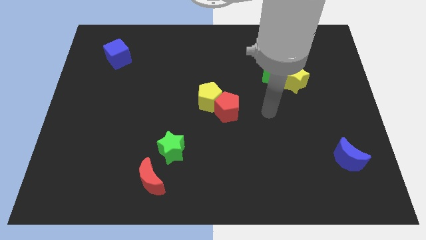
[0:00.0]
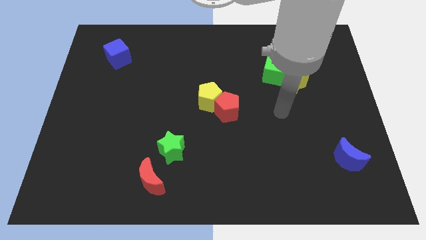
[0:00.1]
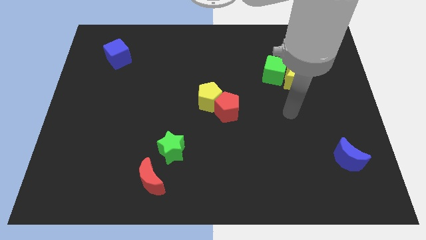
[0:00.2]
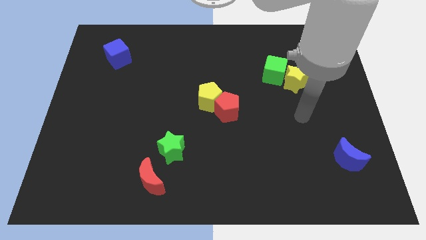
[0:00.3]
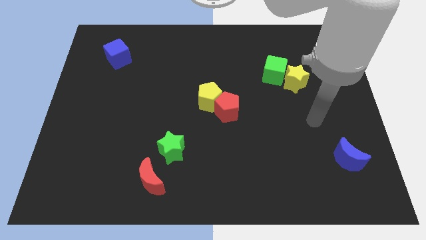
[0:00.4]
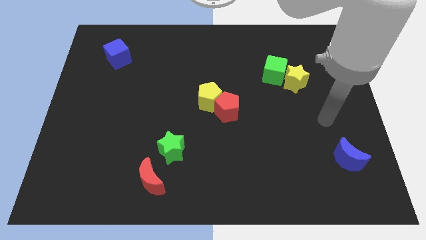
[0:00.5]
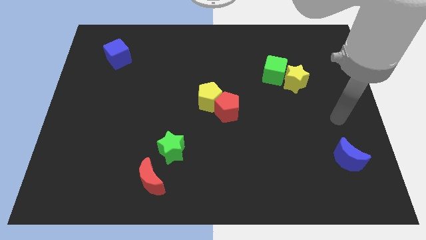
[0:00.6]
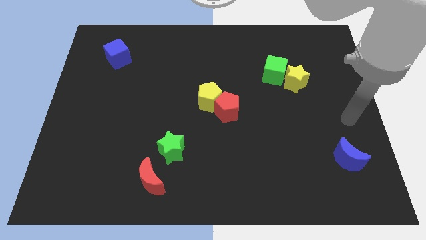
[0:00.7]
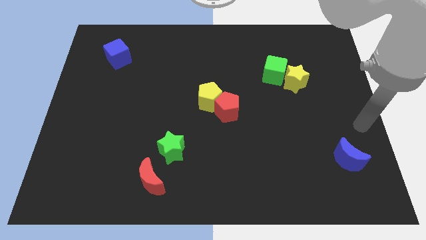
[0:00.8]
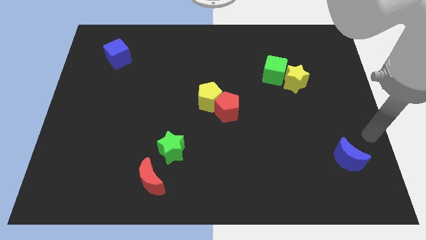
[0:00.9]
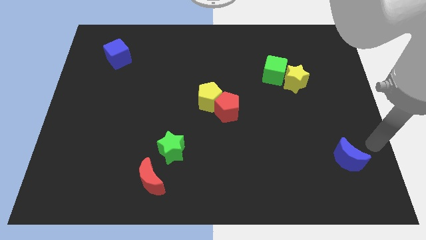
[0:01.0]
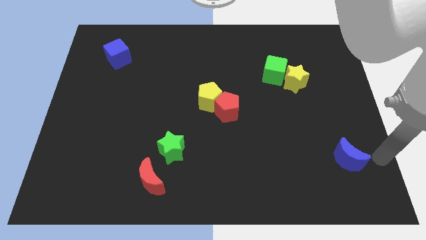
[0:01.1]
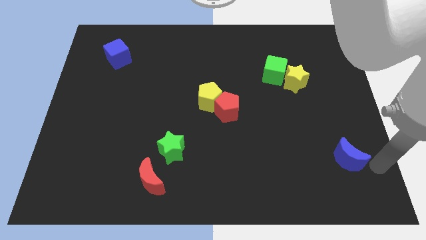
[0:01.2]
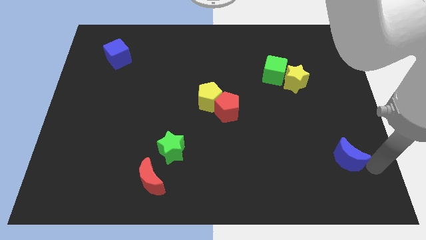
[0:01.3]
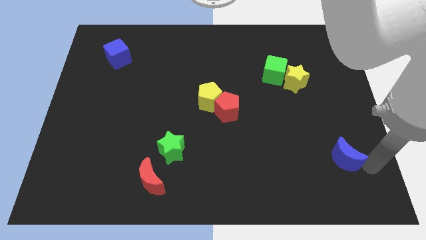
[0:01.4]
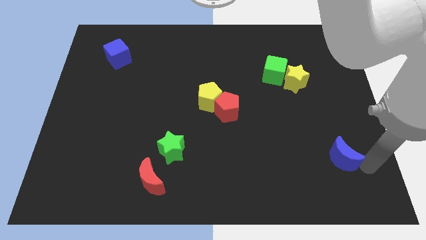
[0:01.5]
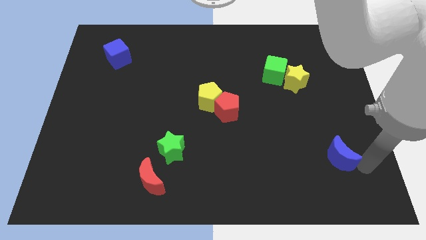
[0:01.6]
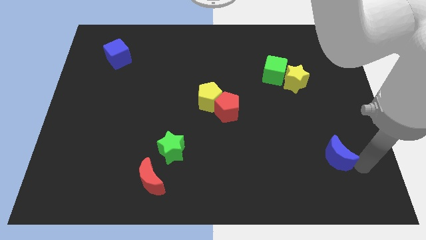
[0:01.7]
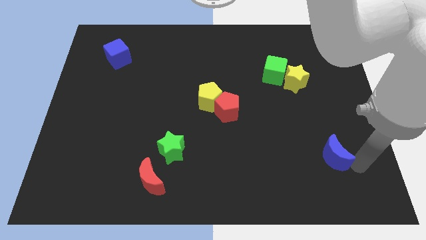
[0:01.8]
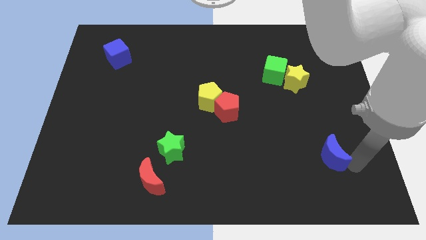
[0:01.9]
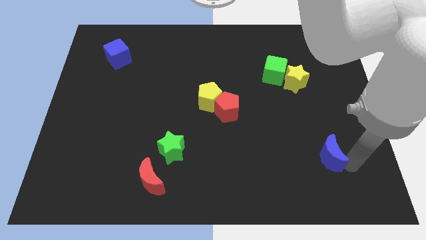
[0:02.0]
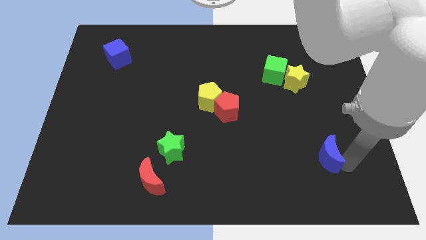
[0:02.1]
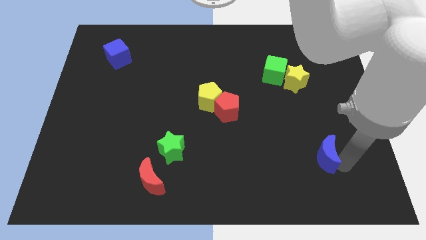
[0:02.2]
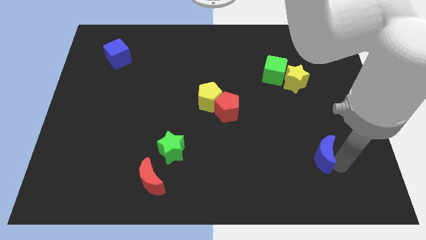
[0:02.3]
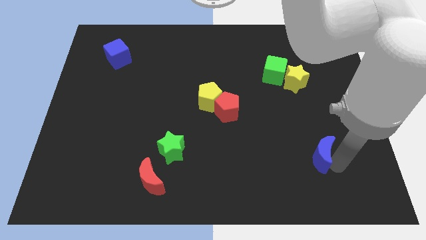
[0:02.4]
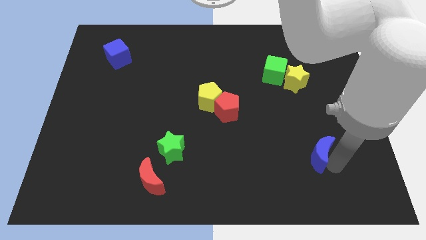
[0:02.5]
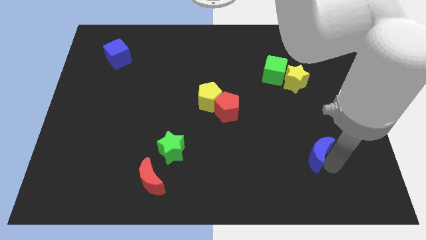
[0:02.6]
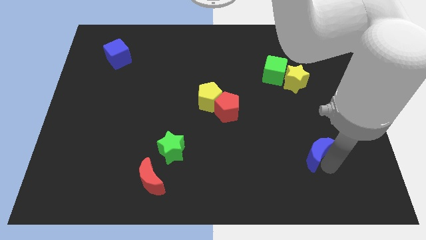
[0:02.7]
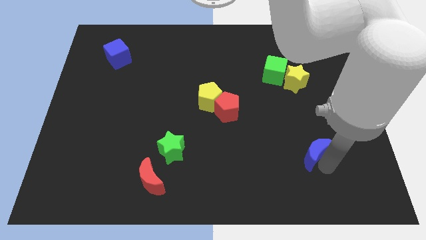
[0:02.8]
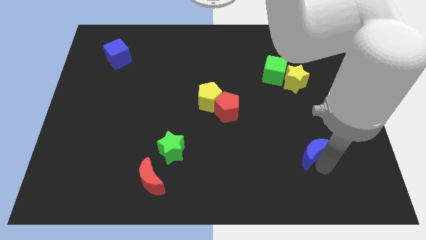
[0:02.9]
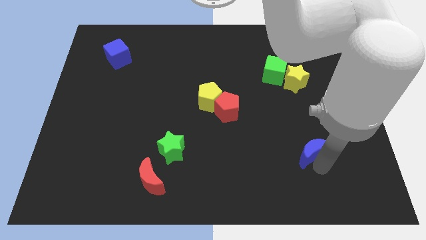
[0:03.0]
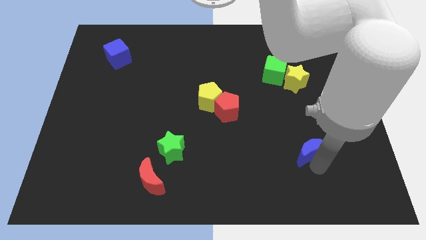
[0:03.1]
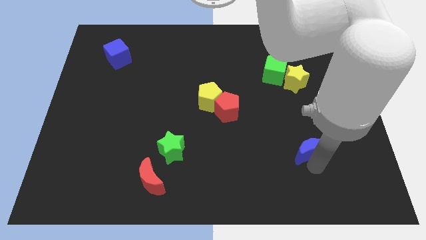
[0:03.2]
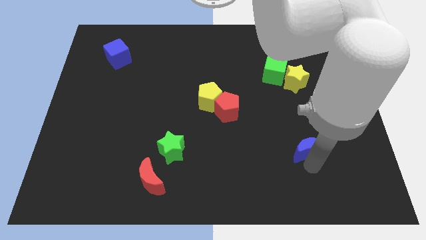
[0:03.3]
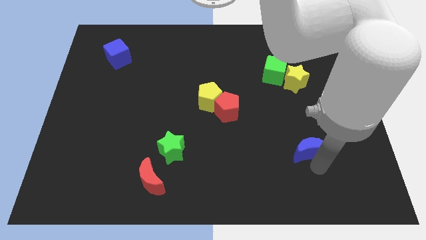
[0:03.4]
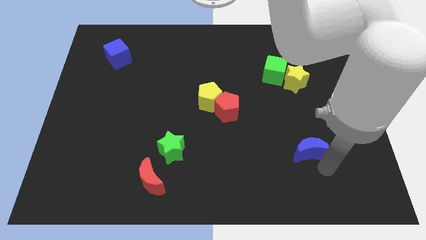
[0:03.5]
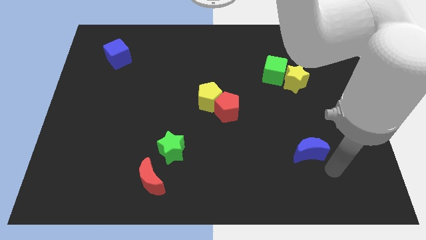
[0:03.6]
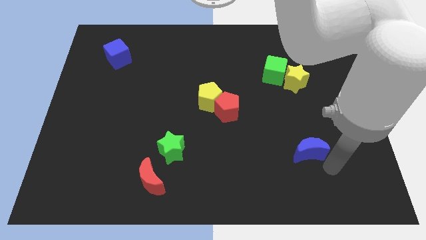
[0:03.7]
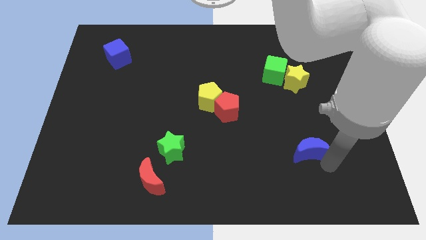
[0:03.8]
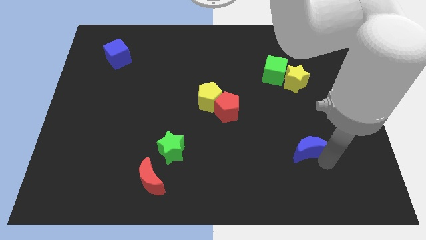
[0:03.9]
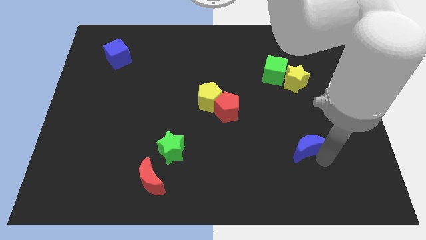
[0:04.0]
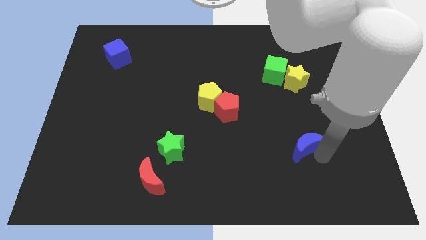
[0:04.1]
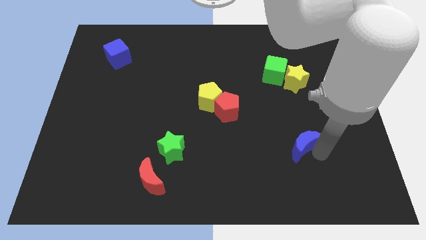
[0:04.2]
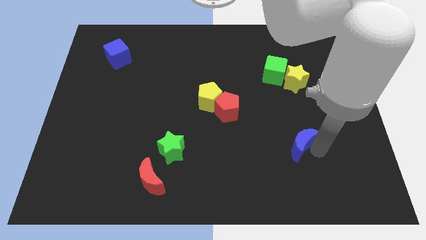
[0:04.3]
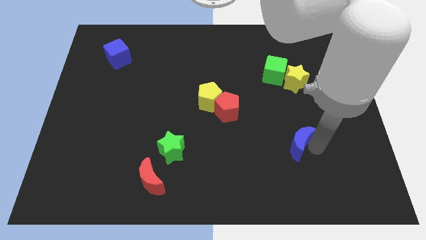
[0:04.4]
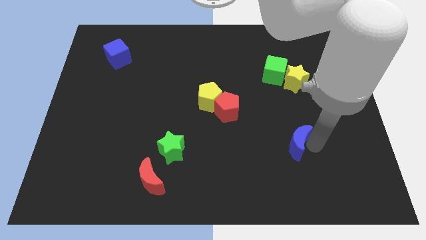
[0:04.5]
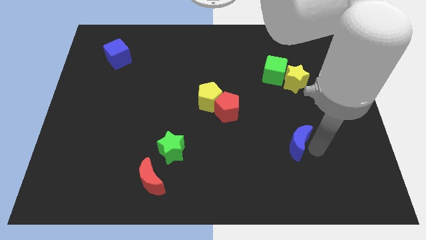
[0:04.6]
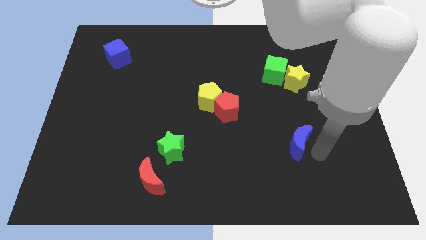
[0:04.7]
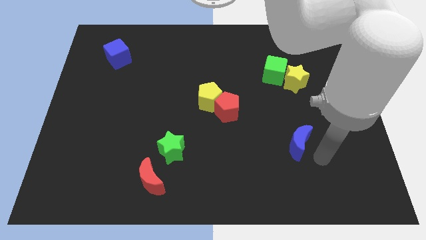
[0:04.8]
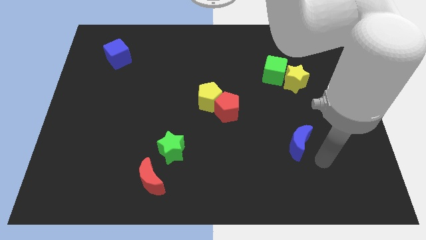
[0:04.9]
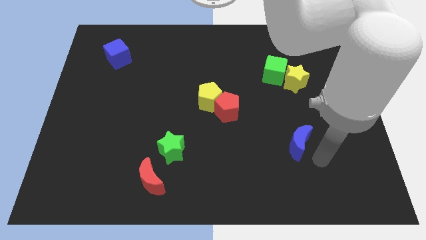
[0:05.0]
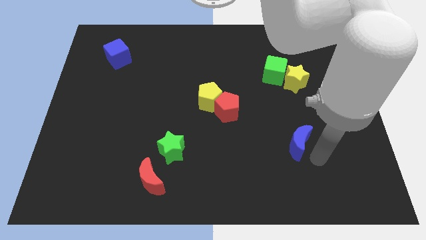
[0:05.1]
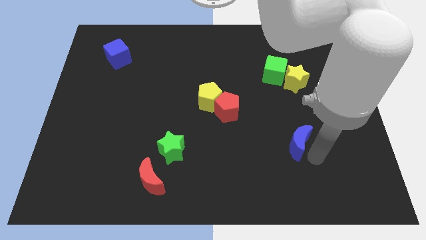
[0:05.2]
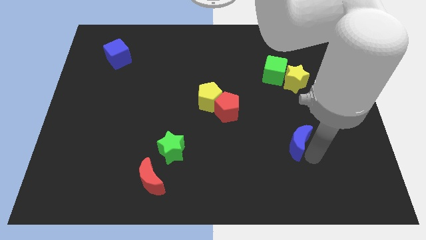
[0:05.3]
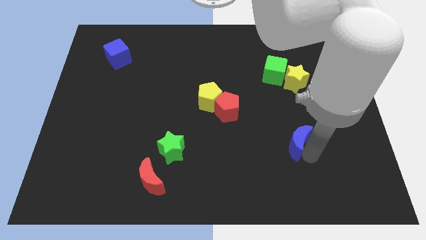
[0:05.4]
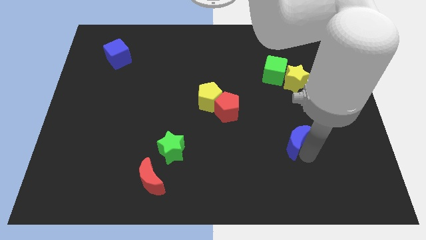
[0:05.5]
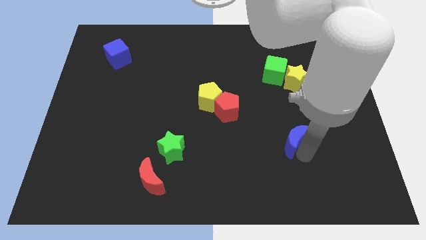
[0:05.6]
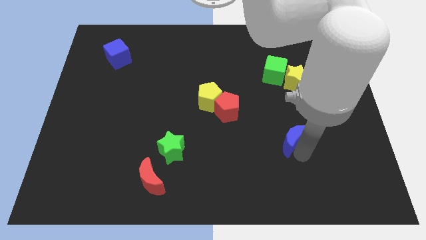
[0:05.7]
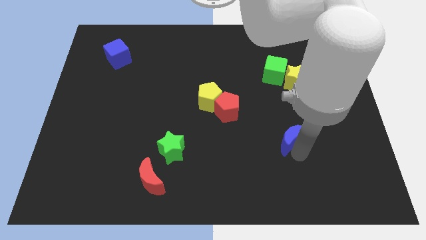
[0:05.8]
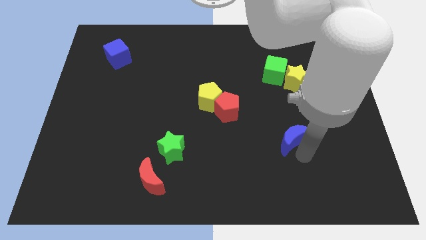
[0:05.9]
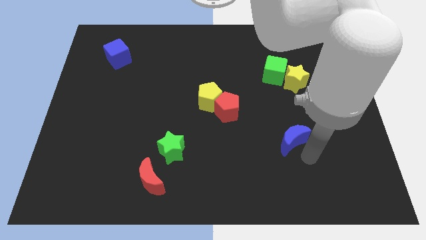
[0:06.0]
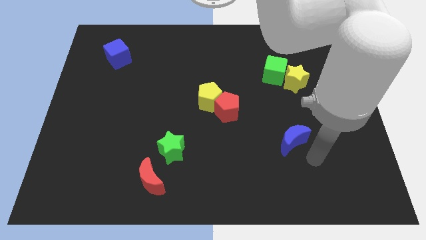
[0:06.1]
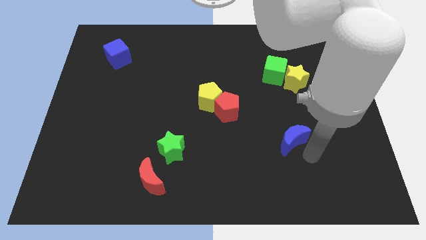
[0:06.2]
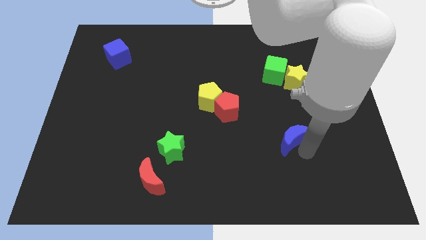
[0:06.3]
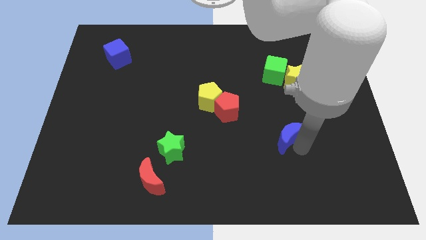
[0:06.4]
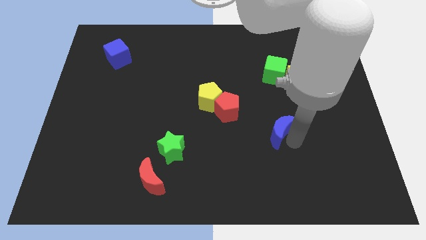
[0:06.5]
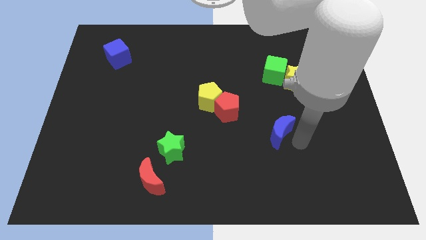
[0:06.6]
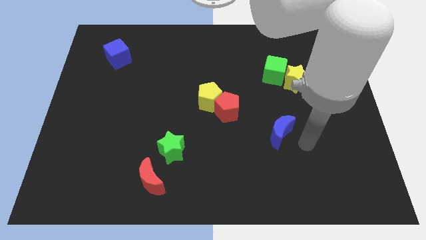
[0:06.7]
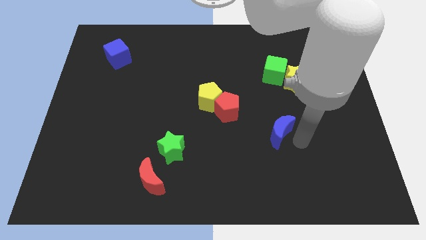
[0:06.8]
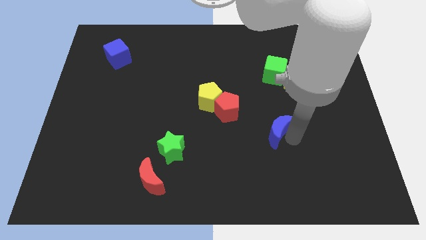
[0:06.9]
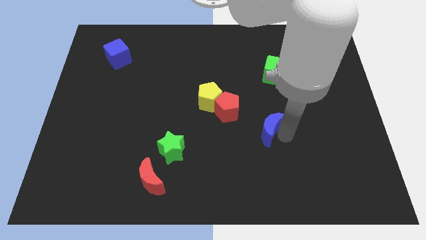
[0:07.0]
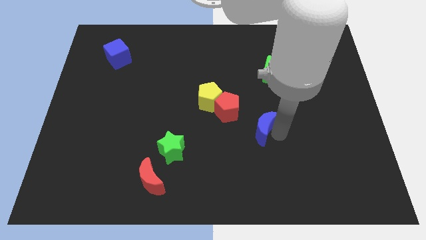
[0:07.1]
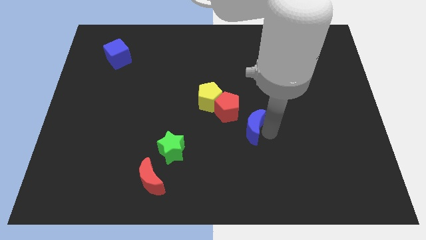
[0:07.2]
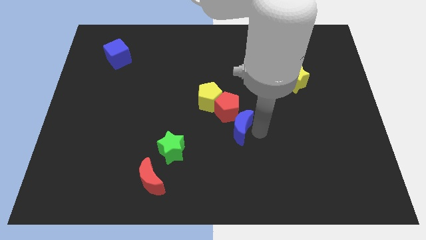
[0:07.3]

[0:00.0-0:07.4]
put the blue moon close to the red pentagon
